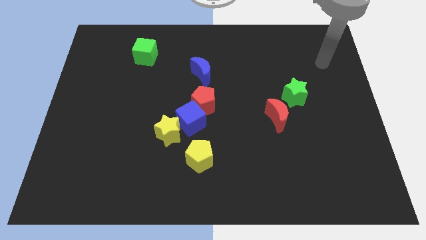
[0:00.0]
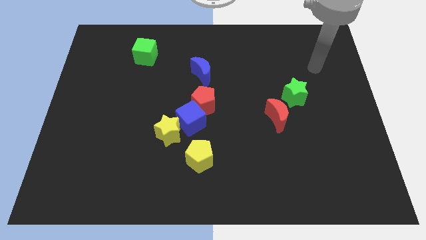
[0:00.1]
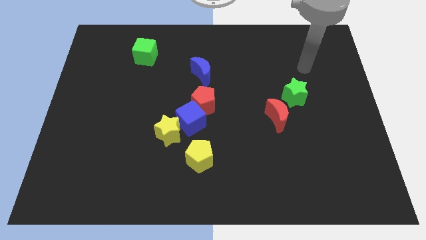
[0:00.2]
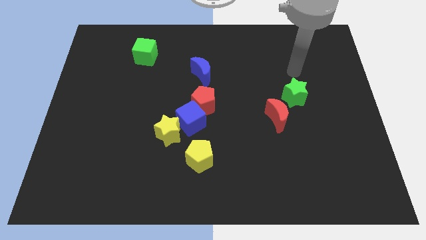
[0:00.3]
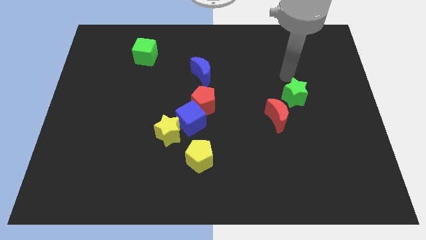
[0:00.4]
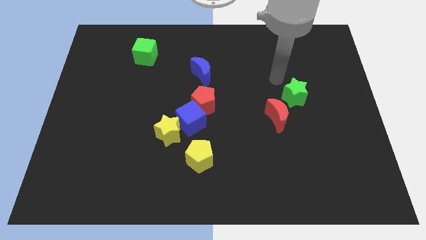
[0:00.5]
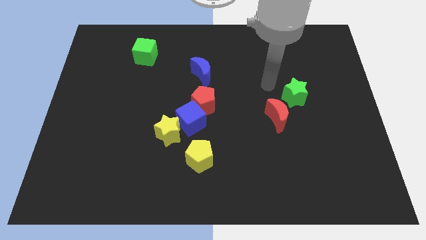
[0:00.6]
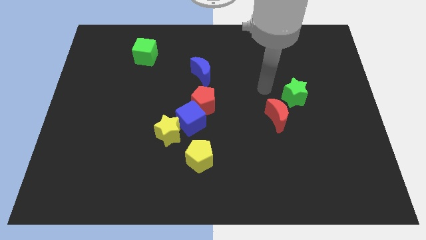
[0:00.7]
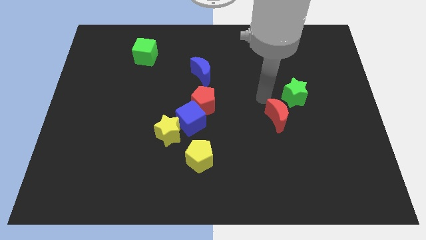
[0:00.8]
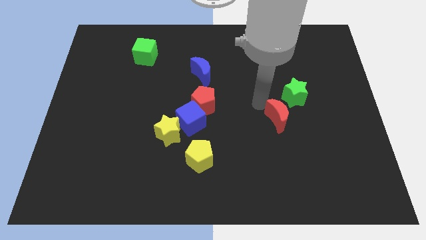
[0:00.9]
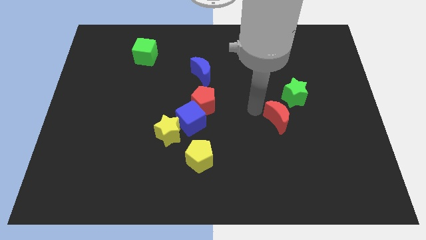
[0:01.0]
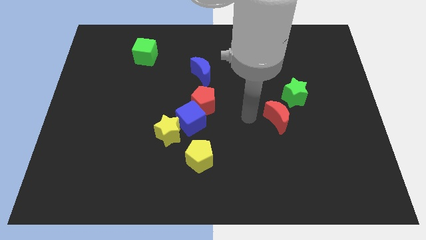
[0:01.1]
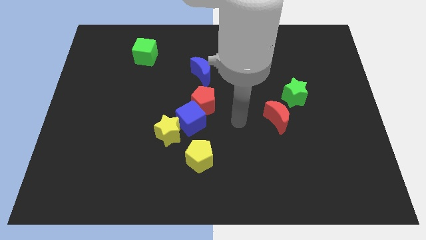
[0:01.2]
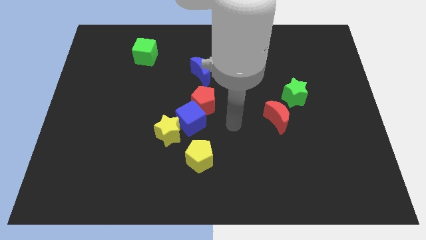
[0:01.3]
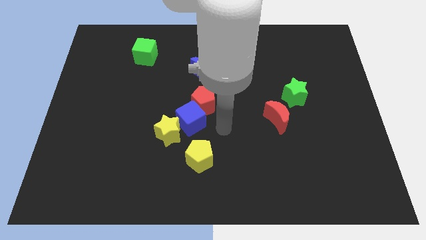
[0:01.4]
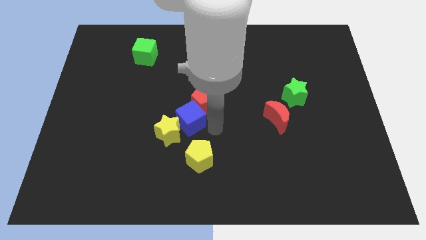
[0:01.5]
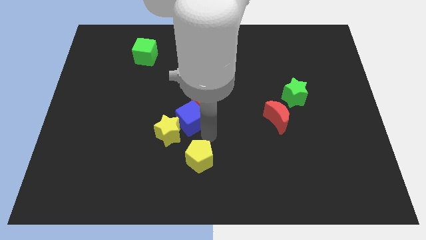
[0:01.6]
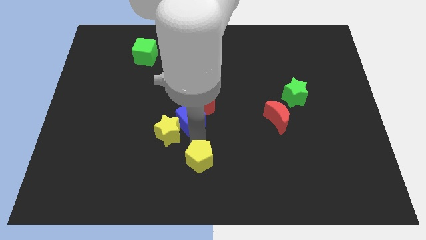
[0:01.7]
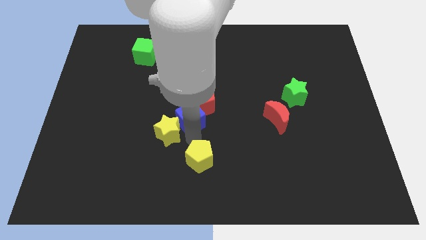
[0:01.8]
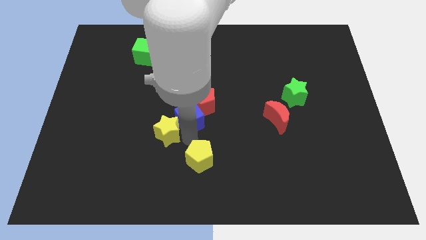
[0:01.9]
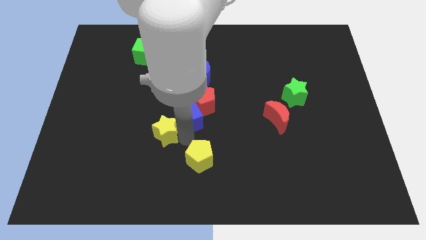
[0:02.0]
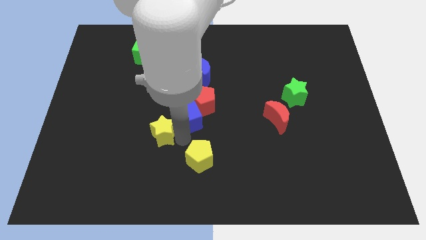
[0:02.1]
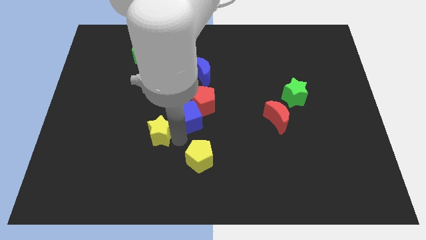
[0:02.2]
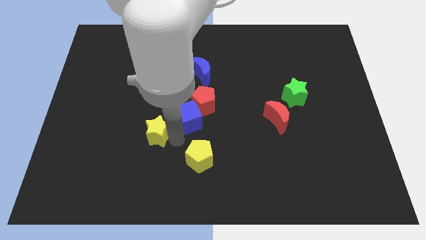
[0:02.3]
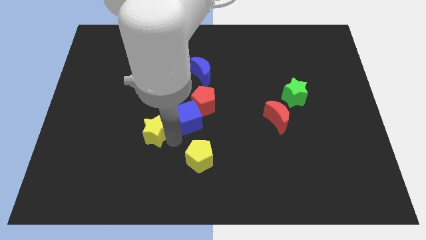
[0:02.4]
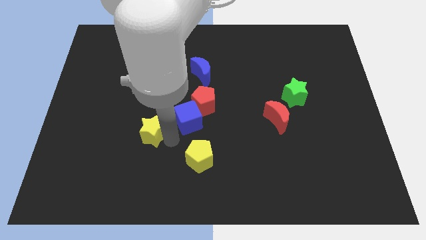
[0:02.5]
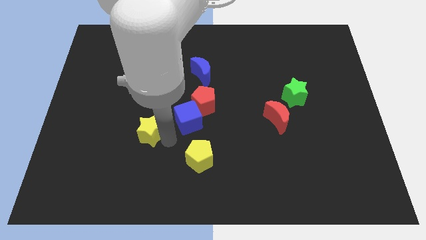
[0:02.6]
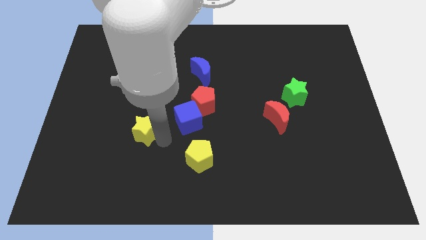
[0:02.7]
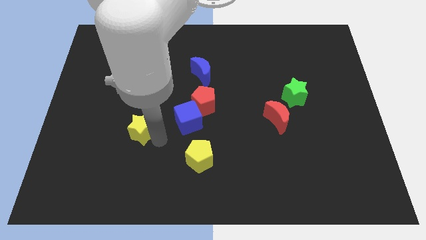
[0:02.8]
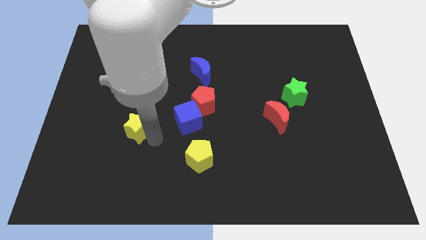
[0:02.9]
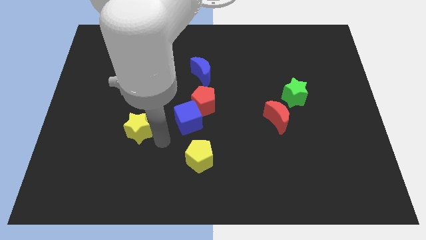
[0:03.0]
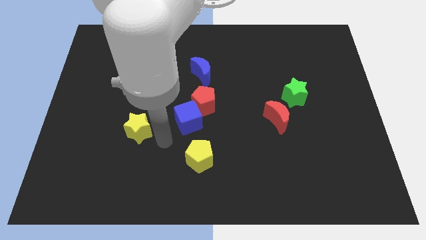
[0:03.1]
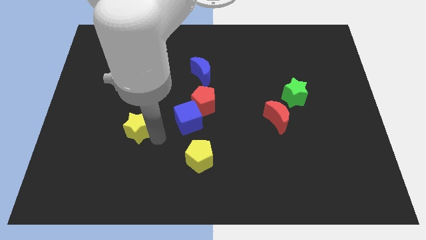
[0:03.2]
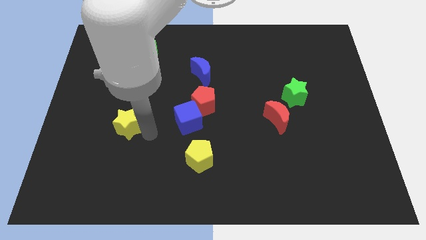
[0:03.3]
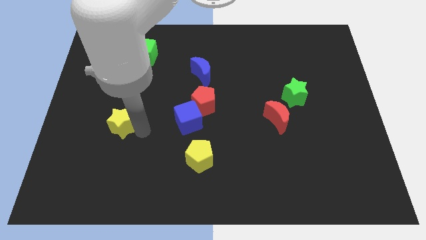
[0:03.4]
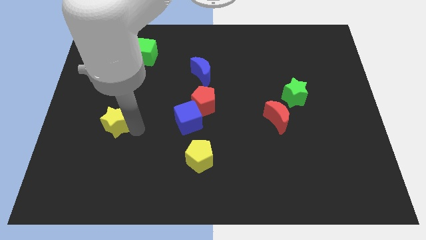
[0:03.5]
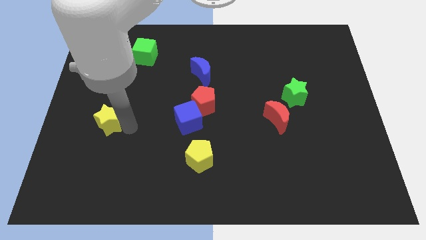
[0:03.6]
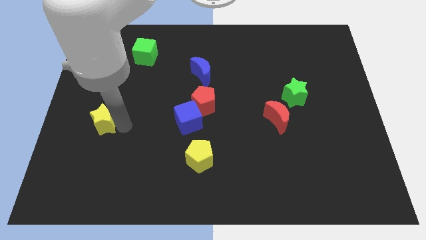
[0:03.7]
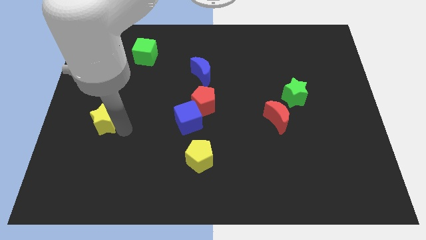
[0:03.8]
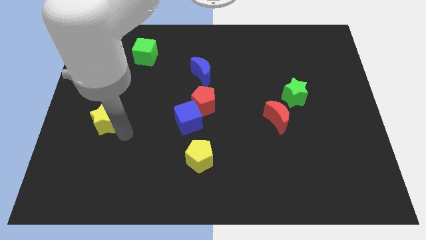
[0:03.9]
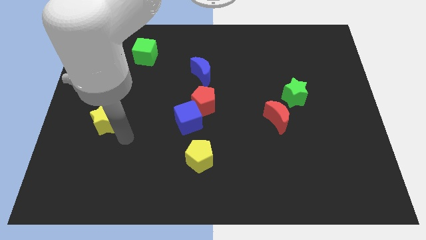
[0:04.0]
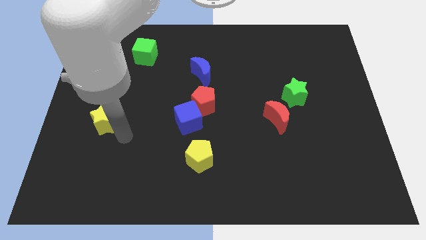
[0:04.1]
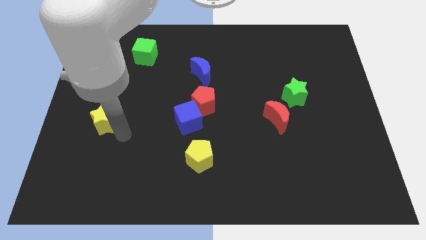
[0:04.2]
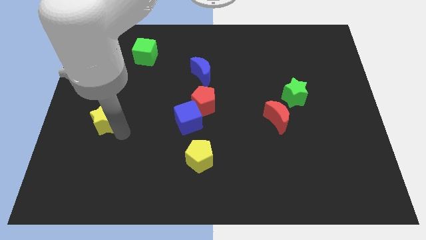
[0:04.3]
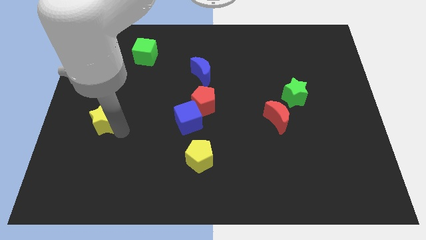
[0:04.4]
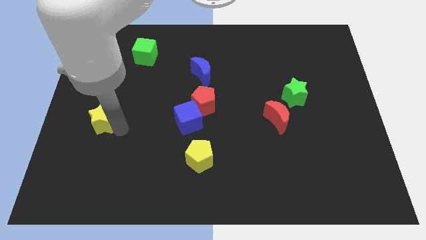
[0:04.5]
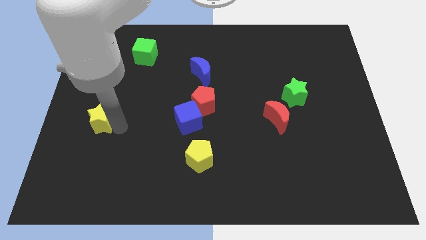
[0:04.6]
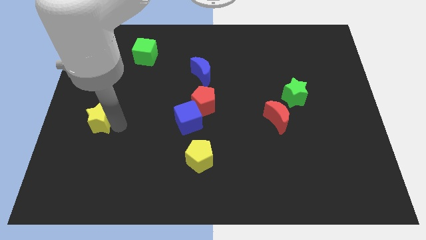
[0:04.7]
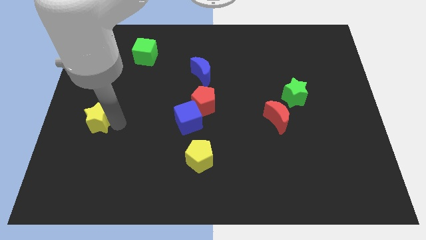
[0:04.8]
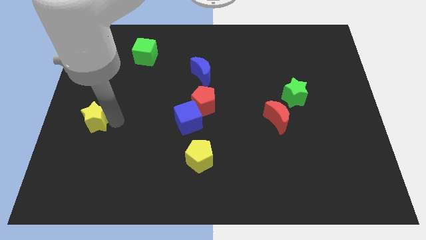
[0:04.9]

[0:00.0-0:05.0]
move the yellow star to the left side of the board

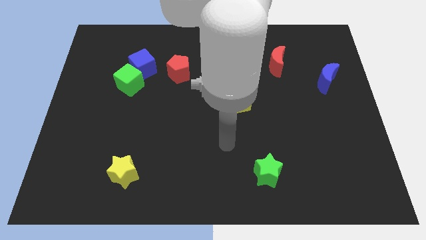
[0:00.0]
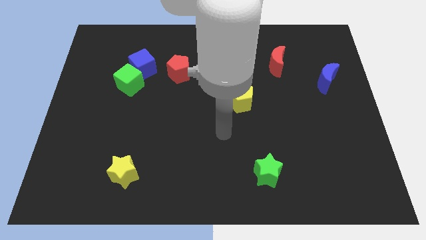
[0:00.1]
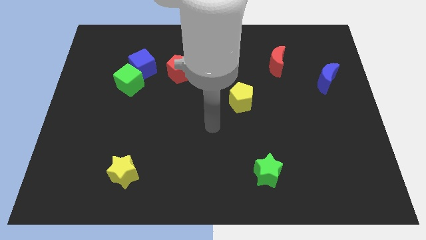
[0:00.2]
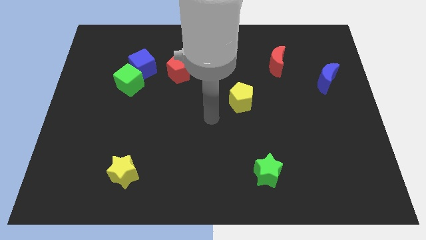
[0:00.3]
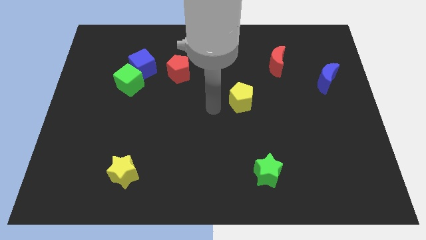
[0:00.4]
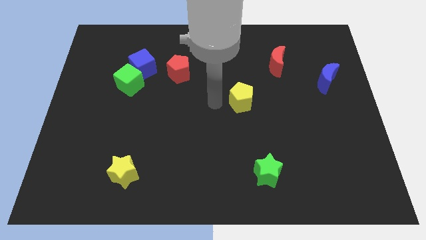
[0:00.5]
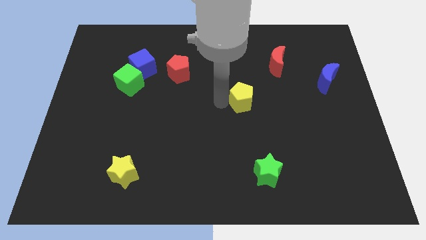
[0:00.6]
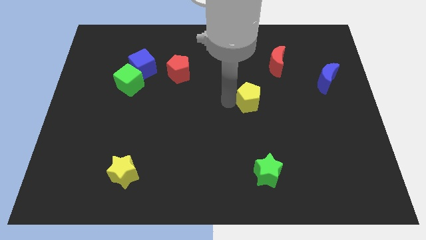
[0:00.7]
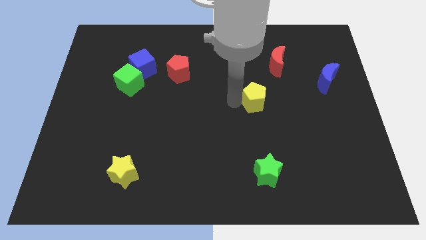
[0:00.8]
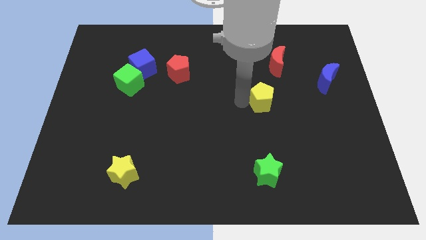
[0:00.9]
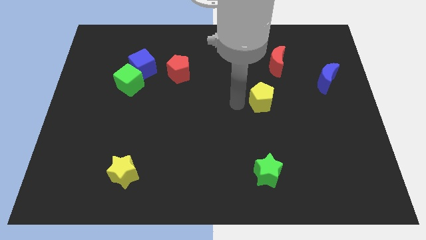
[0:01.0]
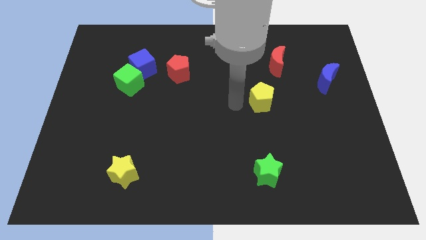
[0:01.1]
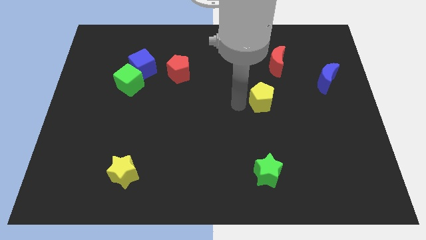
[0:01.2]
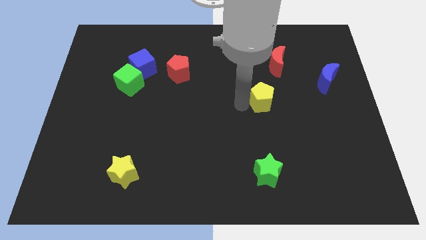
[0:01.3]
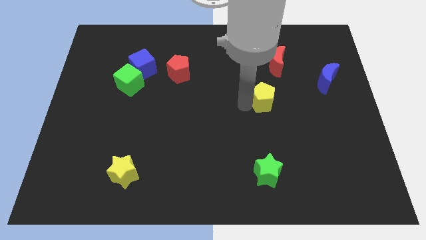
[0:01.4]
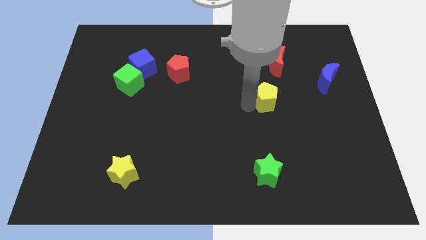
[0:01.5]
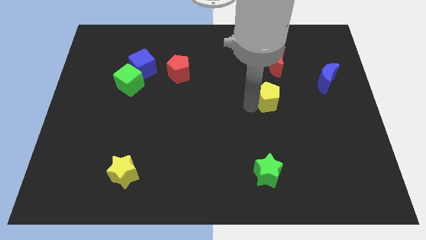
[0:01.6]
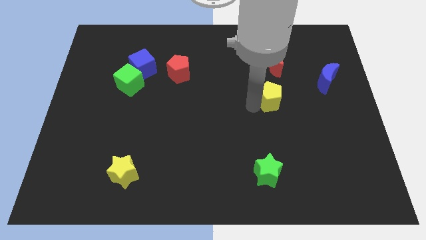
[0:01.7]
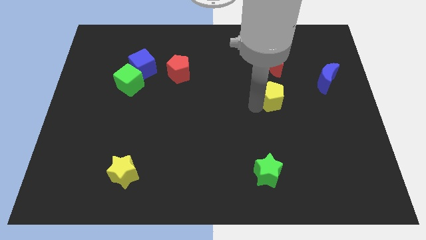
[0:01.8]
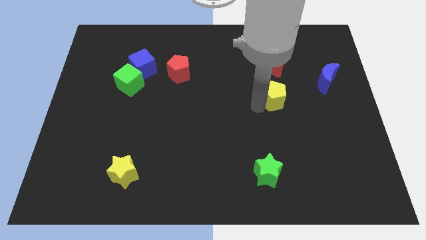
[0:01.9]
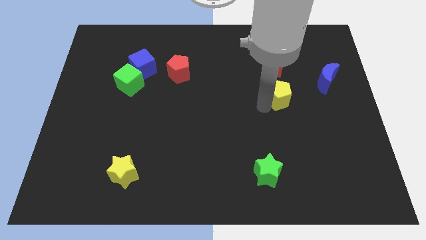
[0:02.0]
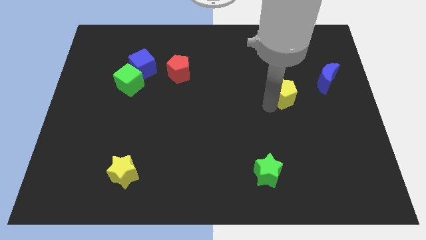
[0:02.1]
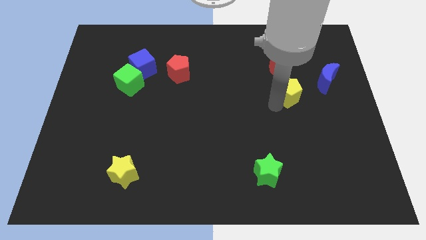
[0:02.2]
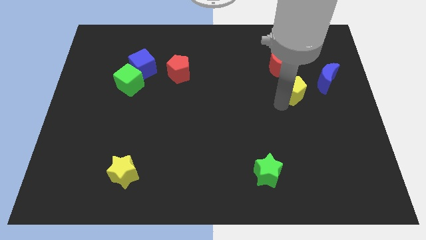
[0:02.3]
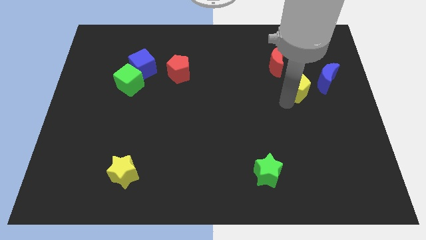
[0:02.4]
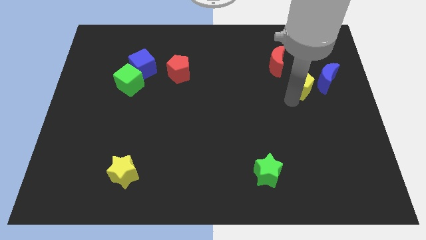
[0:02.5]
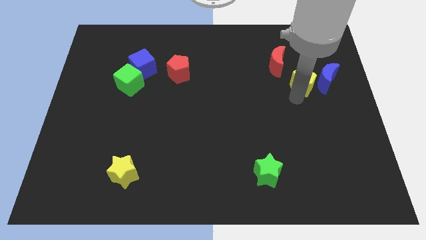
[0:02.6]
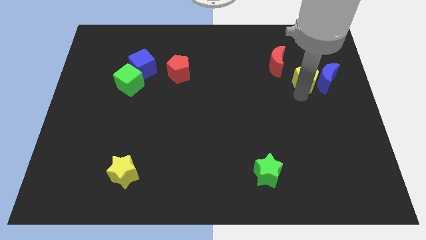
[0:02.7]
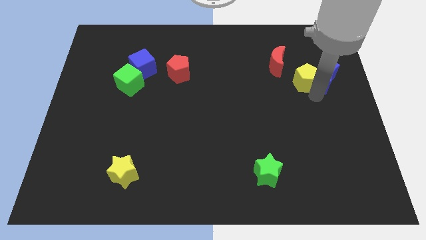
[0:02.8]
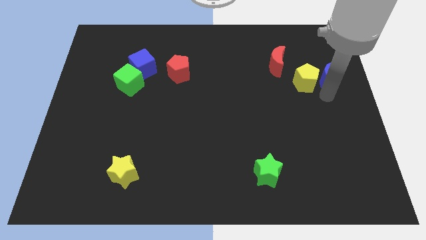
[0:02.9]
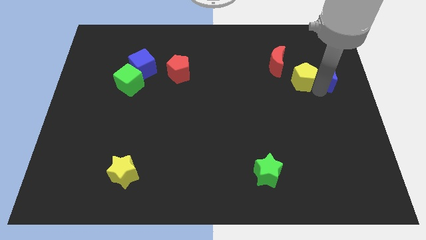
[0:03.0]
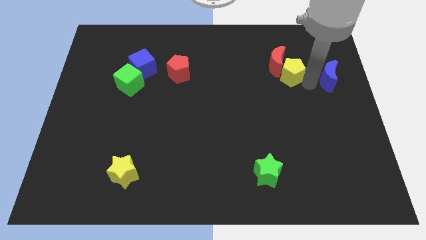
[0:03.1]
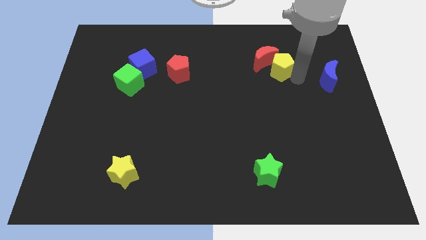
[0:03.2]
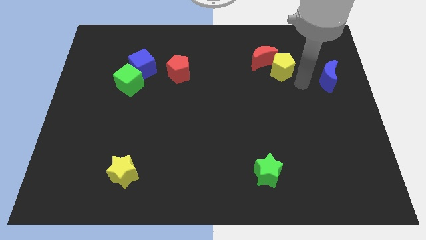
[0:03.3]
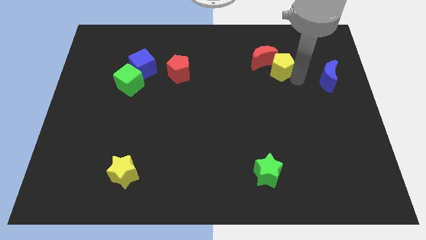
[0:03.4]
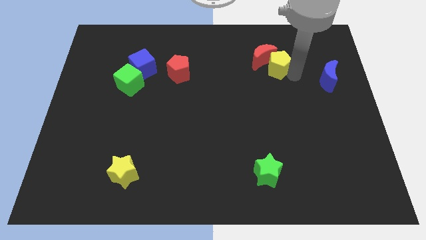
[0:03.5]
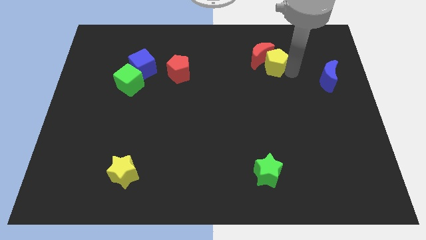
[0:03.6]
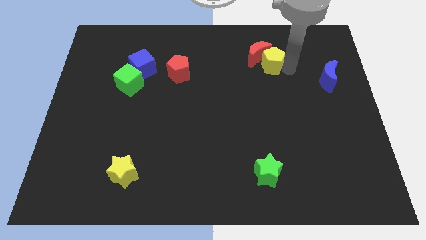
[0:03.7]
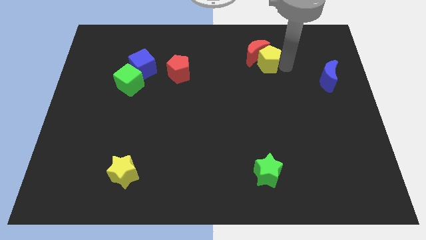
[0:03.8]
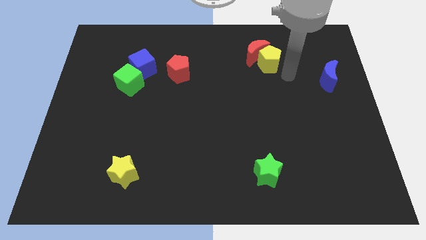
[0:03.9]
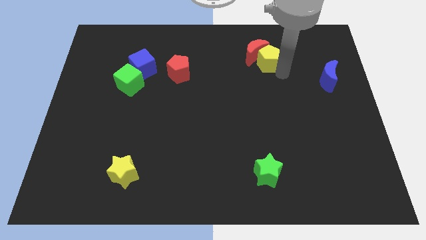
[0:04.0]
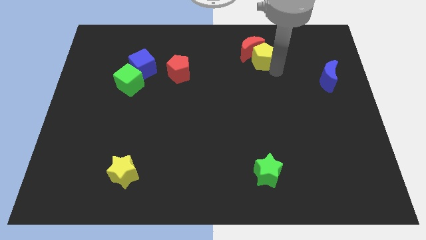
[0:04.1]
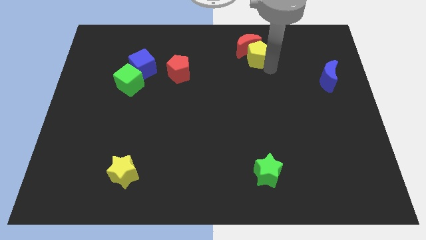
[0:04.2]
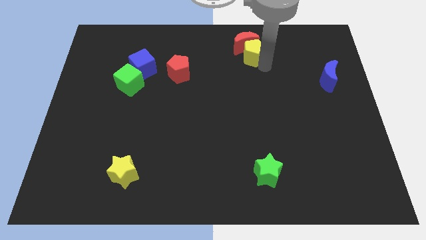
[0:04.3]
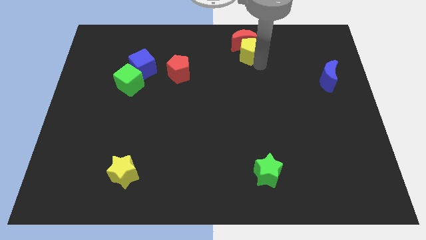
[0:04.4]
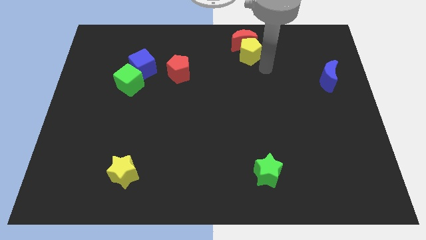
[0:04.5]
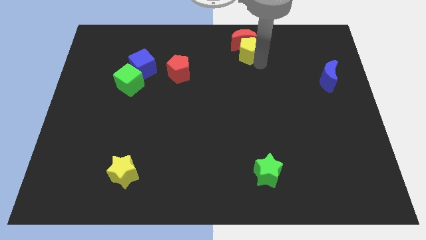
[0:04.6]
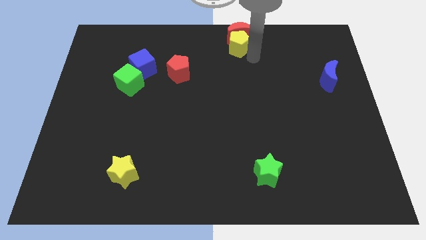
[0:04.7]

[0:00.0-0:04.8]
move the yellow pentagon to the top
